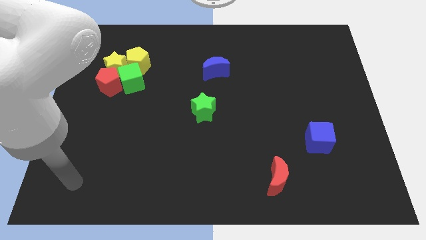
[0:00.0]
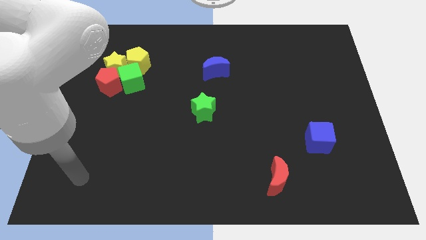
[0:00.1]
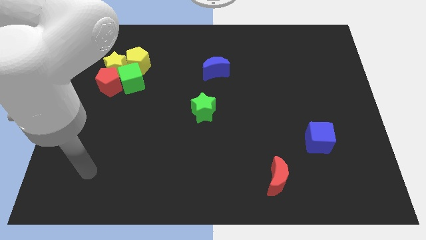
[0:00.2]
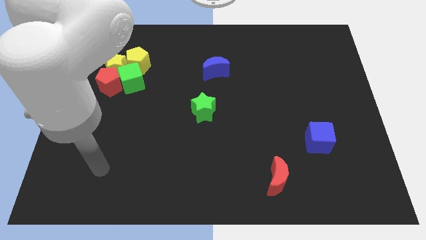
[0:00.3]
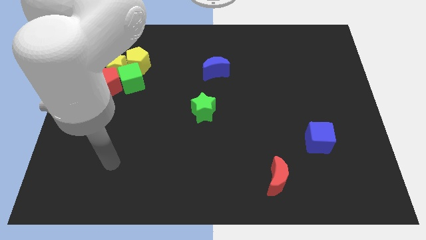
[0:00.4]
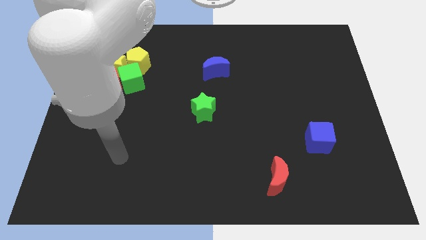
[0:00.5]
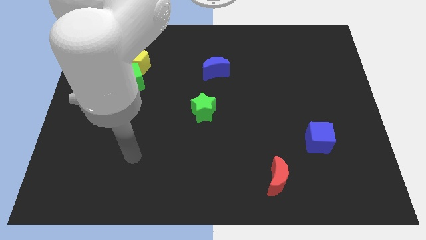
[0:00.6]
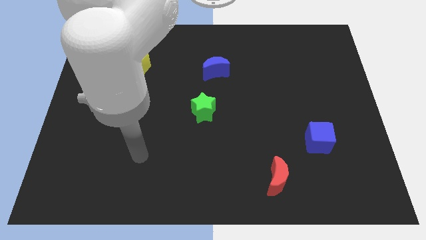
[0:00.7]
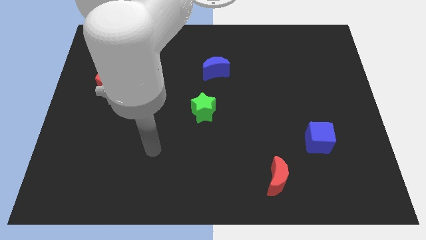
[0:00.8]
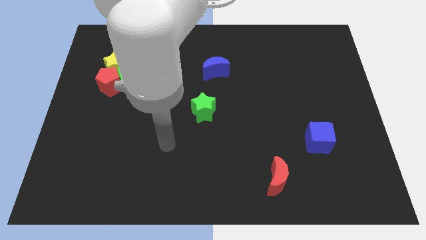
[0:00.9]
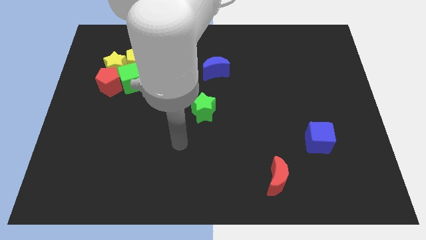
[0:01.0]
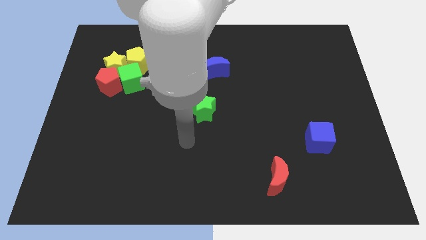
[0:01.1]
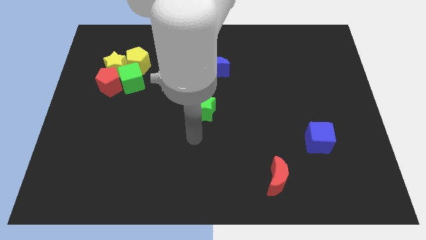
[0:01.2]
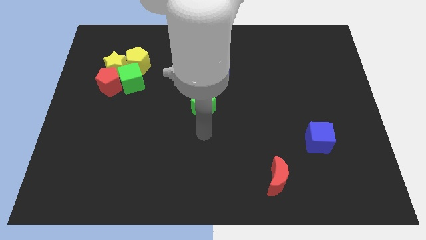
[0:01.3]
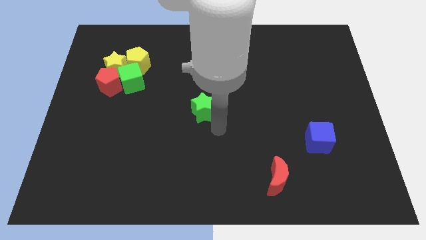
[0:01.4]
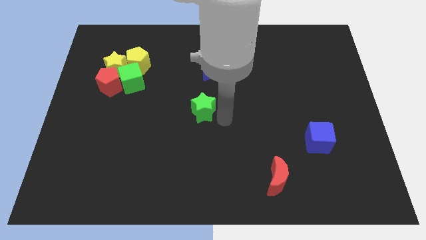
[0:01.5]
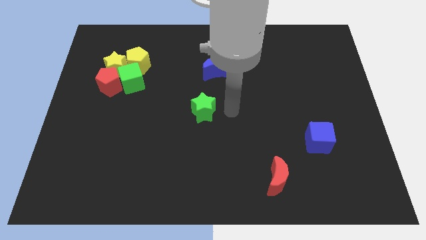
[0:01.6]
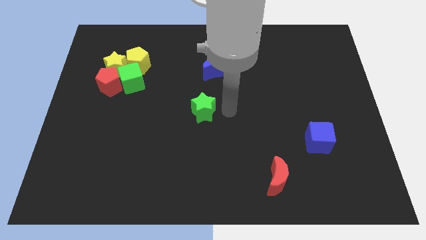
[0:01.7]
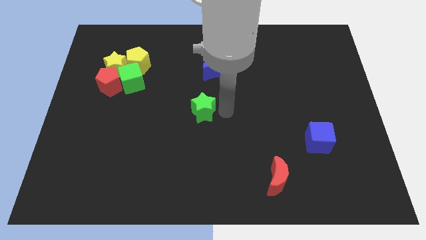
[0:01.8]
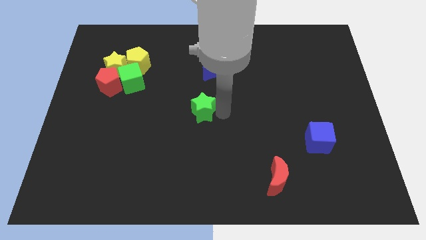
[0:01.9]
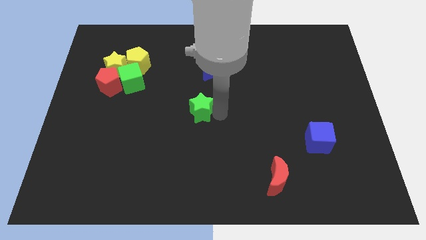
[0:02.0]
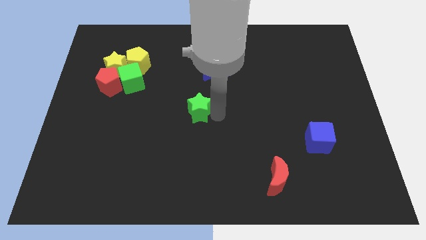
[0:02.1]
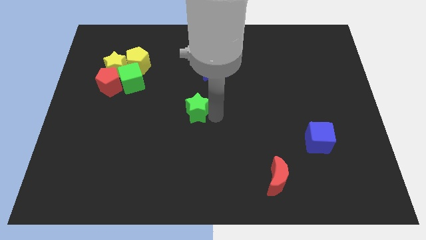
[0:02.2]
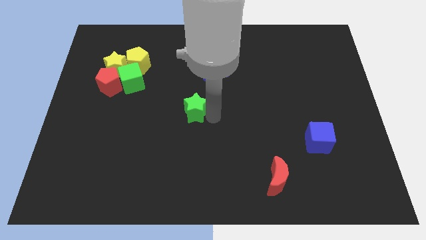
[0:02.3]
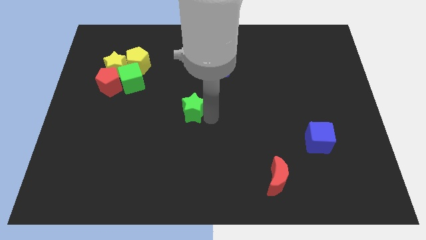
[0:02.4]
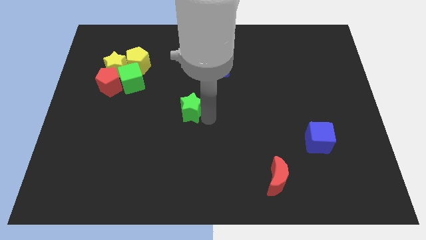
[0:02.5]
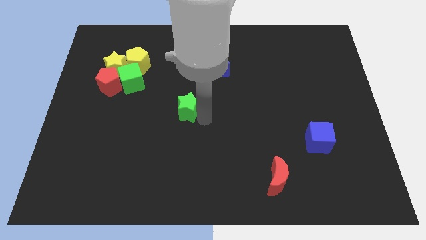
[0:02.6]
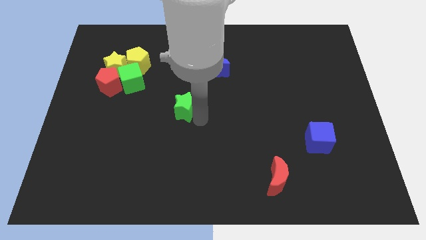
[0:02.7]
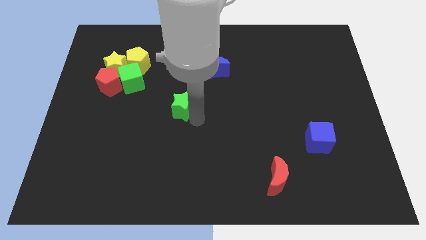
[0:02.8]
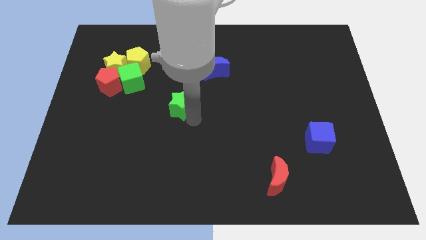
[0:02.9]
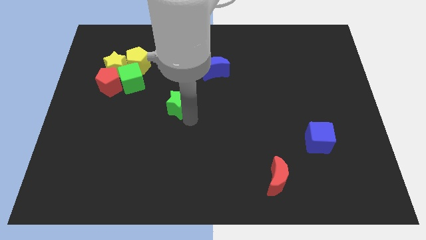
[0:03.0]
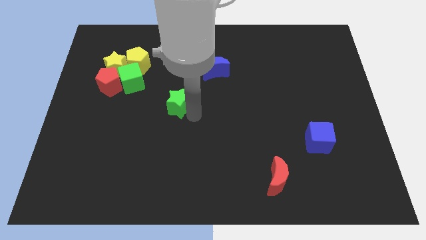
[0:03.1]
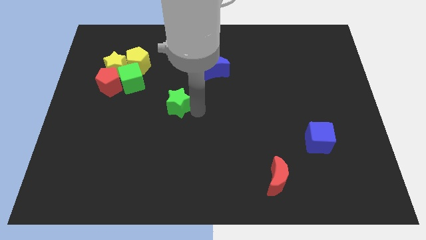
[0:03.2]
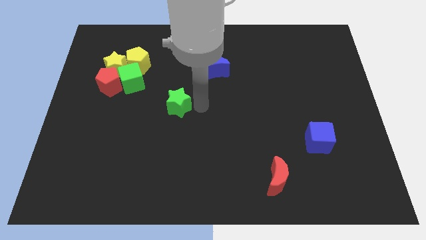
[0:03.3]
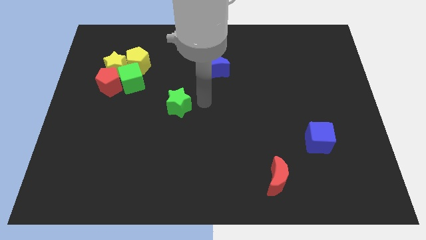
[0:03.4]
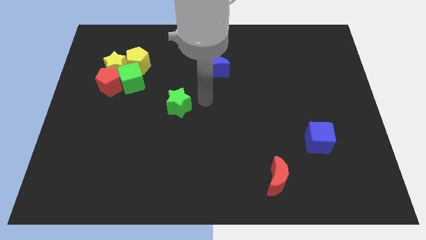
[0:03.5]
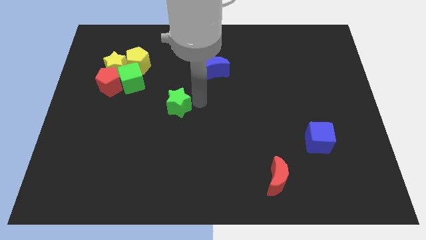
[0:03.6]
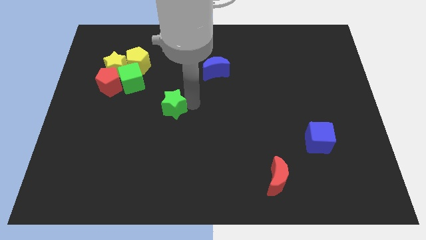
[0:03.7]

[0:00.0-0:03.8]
slide the green star left a little bit

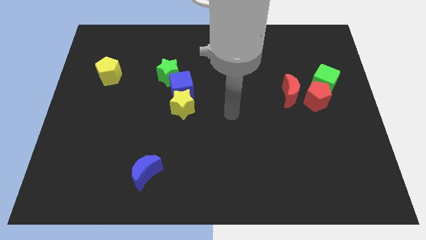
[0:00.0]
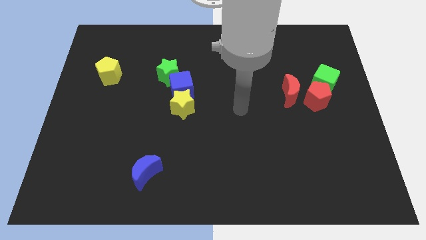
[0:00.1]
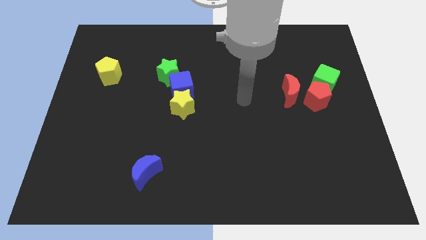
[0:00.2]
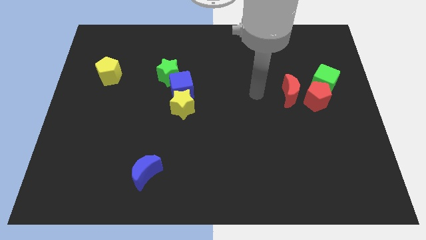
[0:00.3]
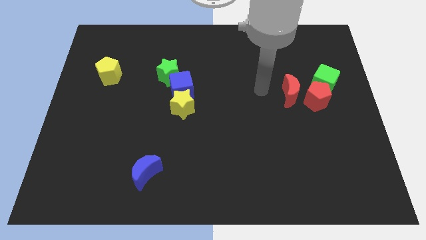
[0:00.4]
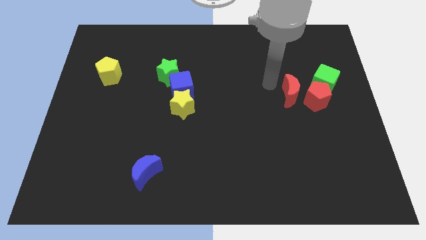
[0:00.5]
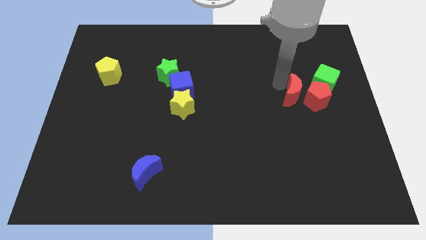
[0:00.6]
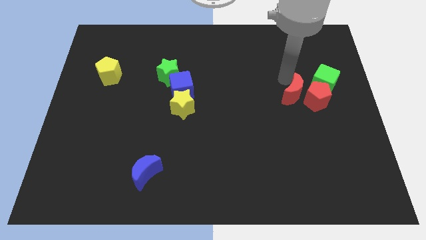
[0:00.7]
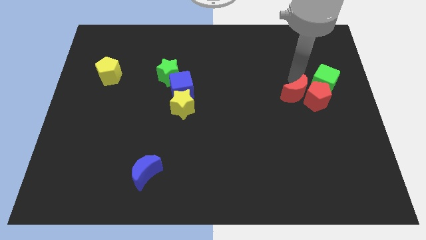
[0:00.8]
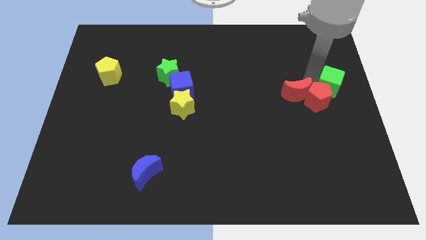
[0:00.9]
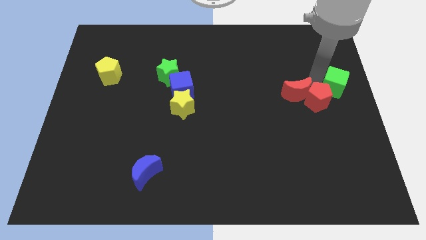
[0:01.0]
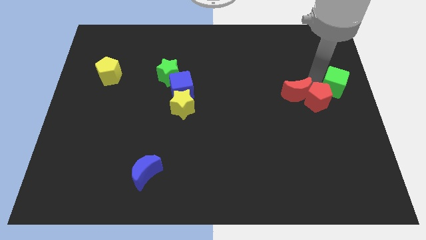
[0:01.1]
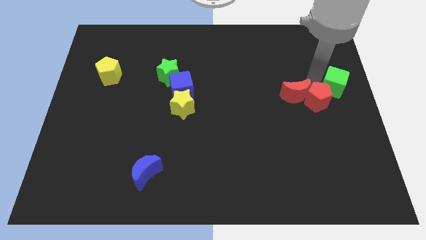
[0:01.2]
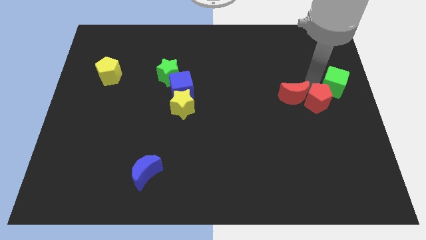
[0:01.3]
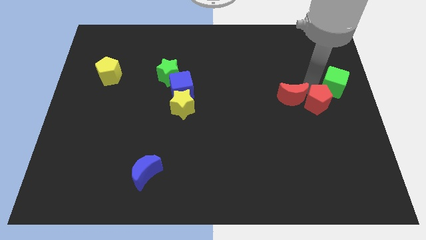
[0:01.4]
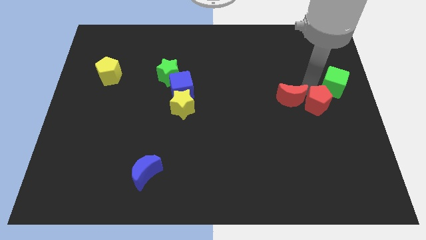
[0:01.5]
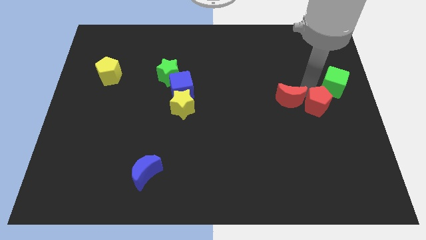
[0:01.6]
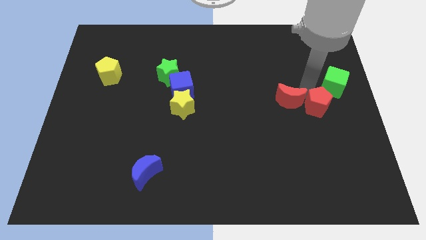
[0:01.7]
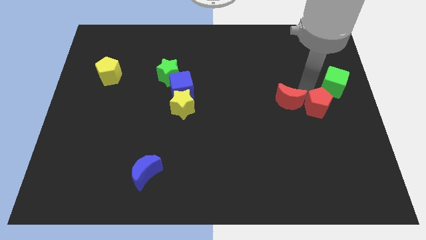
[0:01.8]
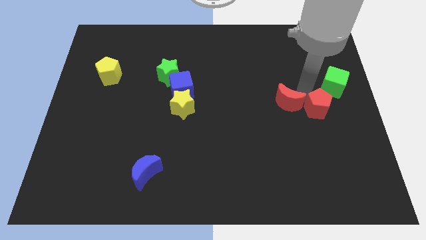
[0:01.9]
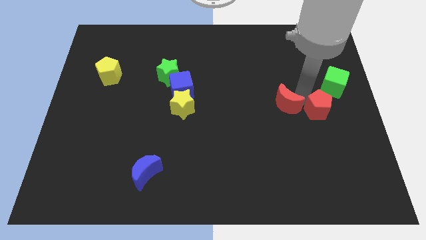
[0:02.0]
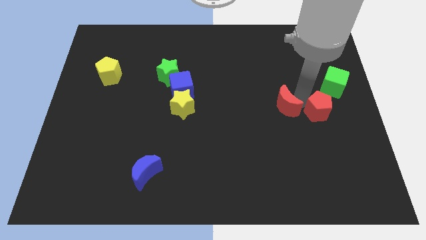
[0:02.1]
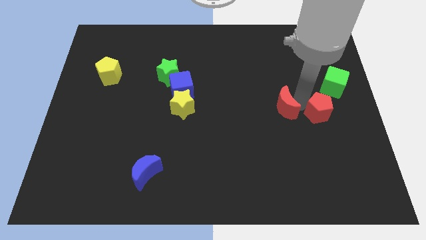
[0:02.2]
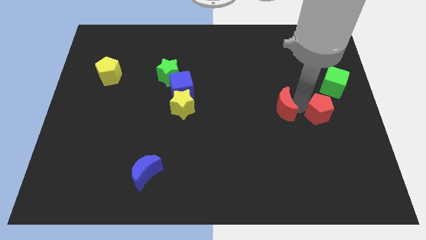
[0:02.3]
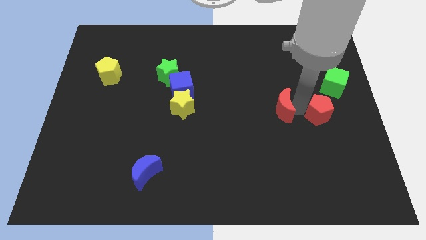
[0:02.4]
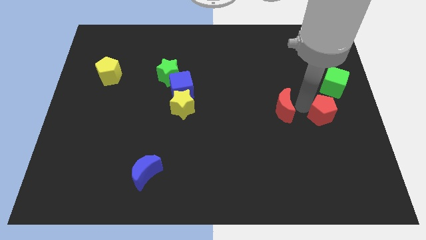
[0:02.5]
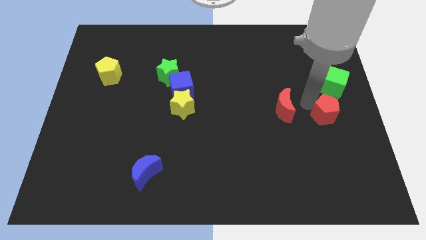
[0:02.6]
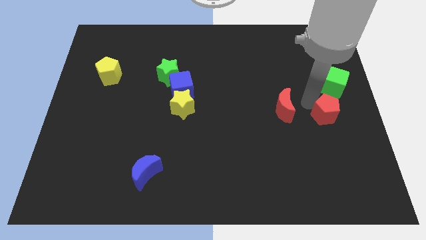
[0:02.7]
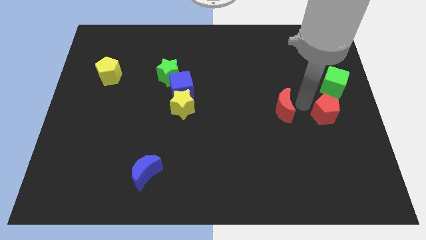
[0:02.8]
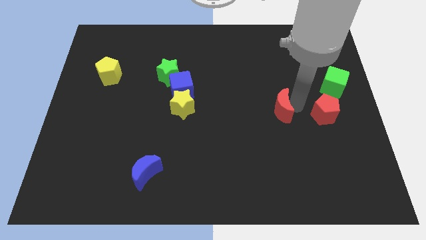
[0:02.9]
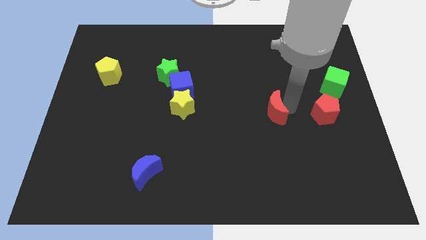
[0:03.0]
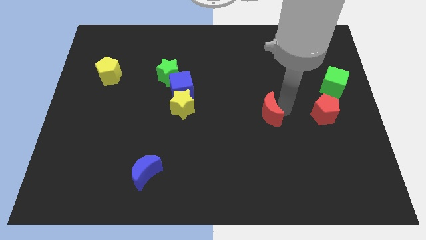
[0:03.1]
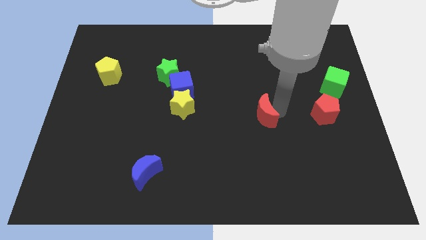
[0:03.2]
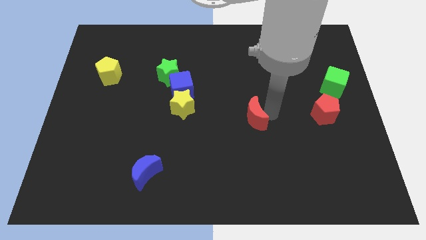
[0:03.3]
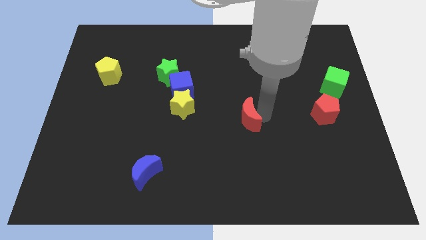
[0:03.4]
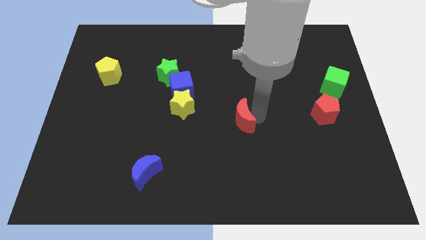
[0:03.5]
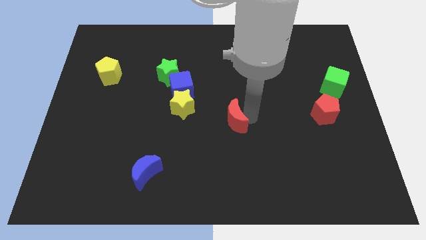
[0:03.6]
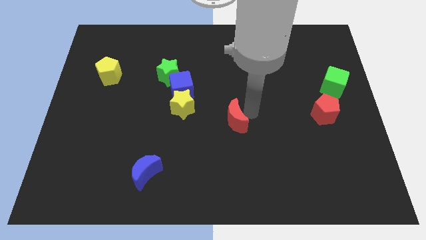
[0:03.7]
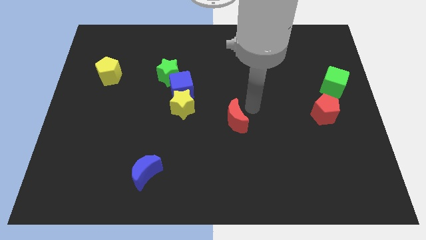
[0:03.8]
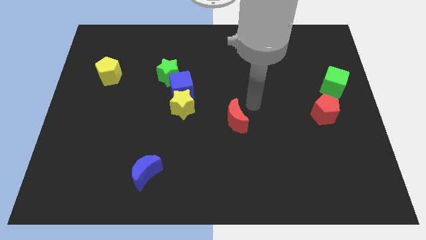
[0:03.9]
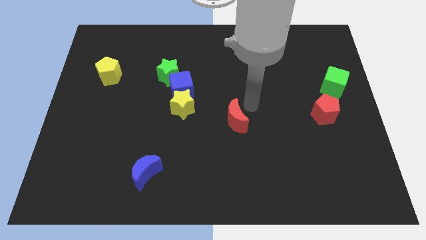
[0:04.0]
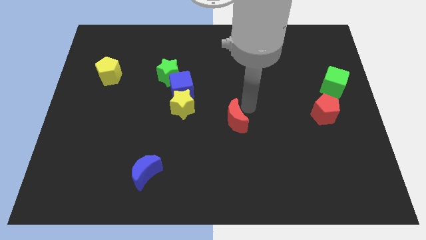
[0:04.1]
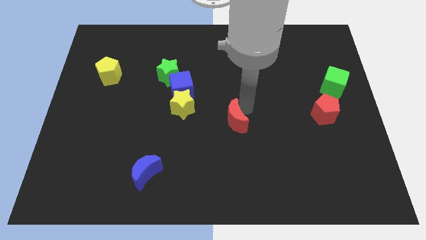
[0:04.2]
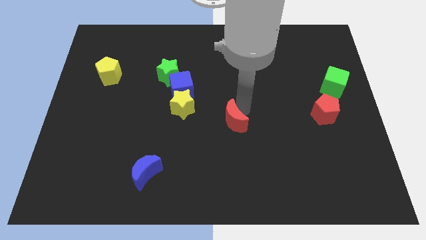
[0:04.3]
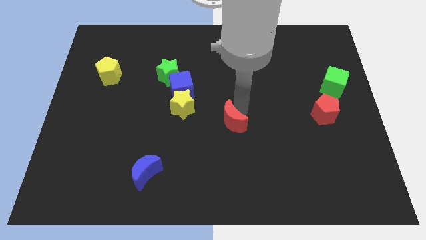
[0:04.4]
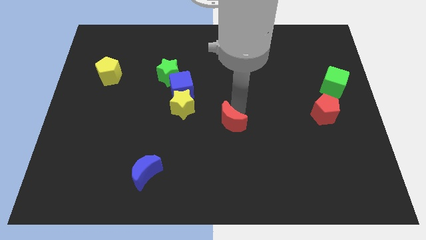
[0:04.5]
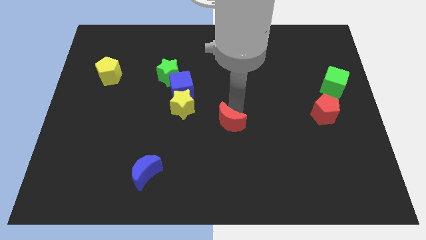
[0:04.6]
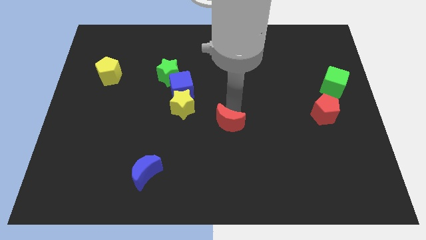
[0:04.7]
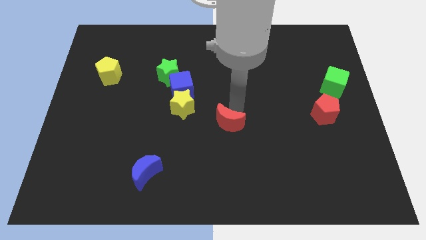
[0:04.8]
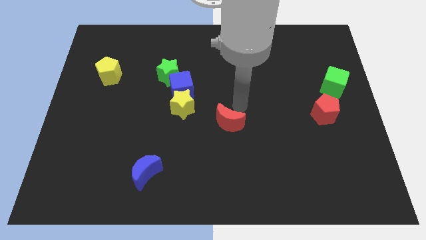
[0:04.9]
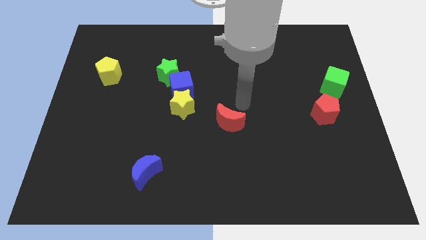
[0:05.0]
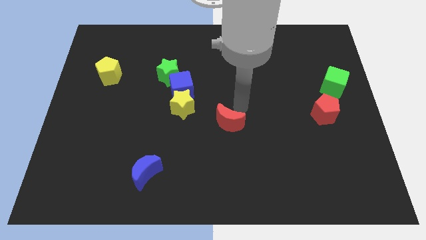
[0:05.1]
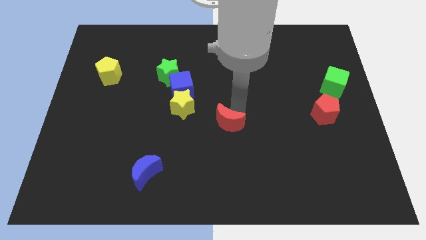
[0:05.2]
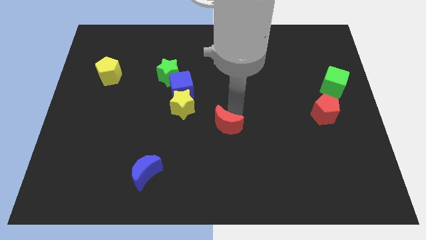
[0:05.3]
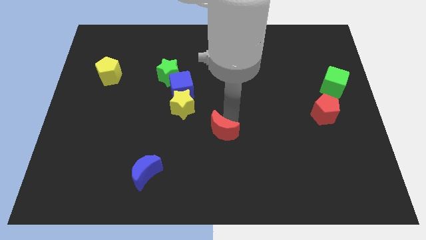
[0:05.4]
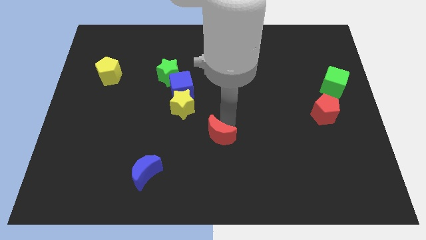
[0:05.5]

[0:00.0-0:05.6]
move the red moon downwards and to the left diagonally
